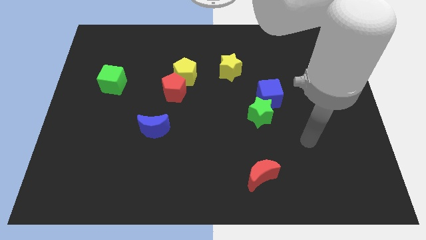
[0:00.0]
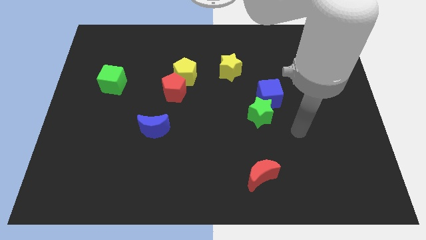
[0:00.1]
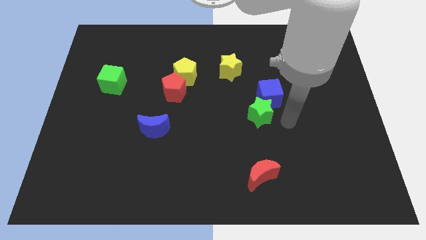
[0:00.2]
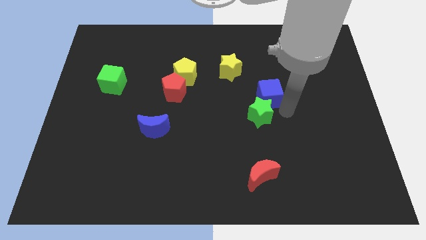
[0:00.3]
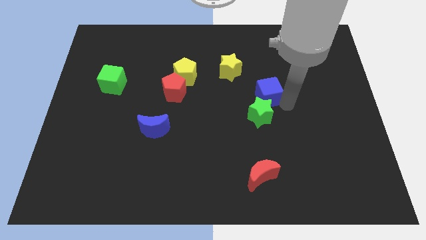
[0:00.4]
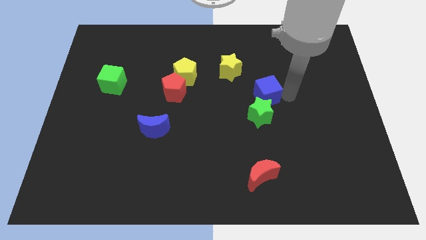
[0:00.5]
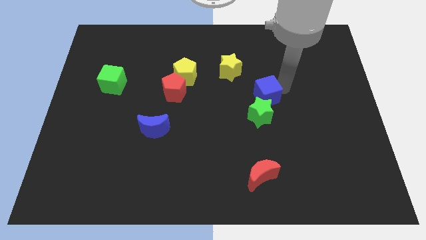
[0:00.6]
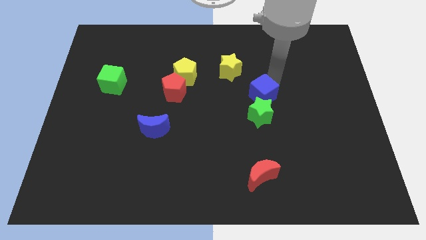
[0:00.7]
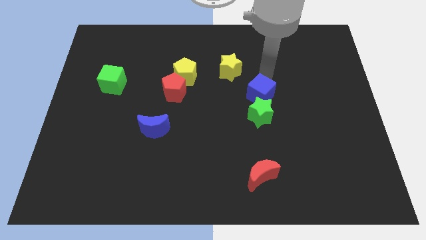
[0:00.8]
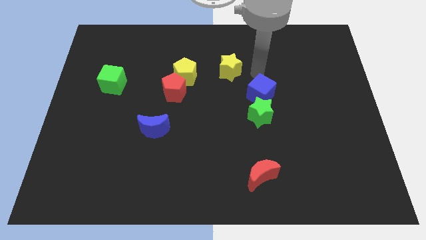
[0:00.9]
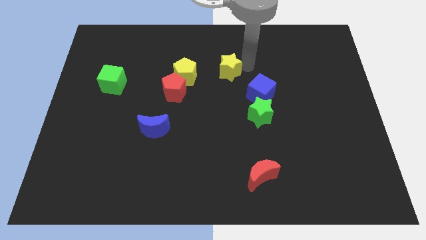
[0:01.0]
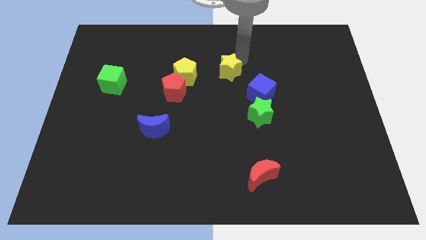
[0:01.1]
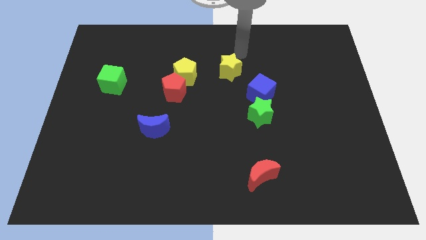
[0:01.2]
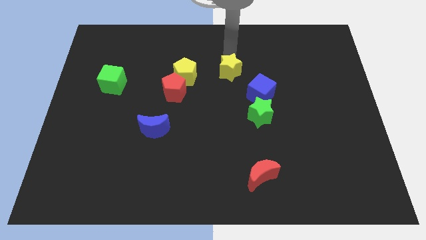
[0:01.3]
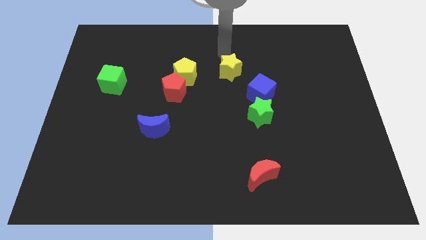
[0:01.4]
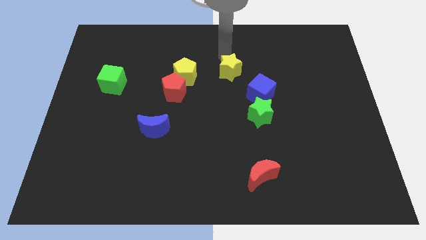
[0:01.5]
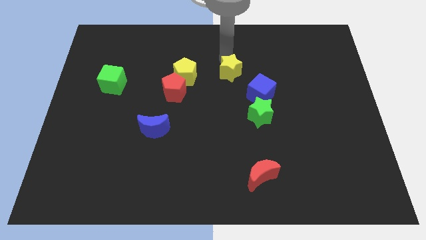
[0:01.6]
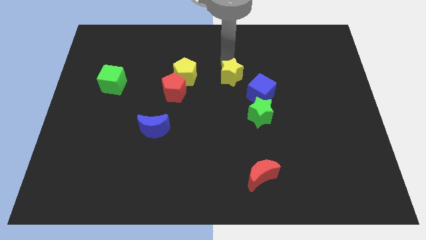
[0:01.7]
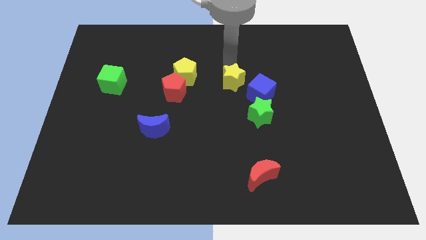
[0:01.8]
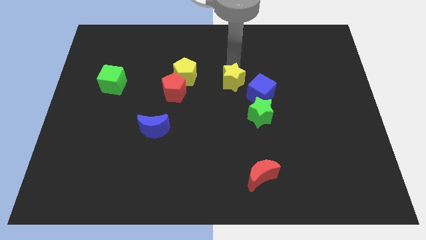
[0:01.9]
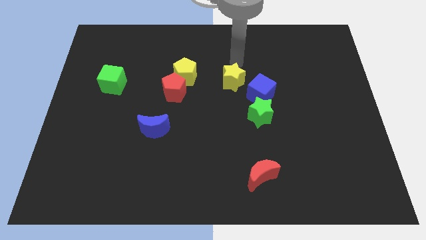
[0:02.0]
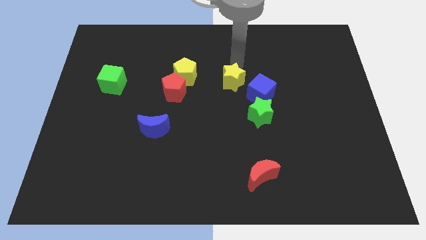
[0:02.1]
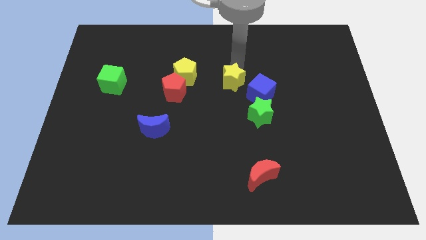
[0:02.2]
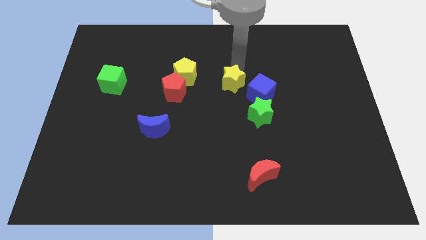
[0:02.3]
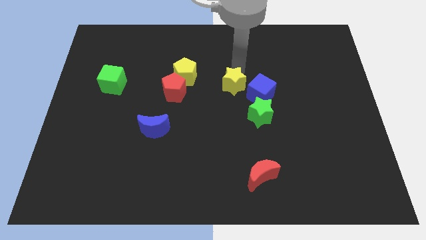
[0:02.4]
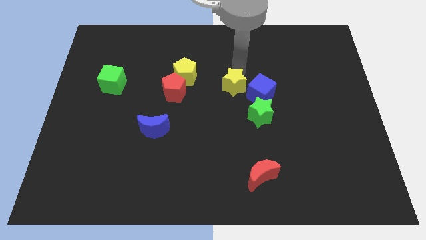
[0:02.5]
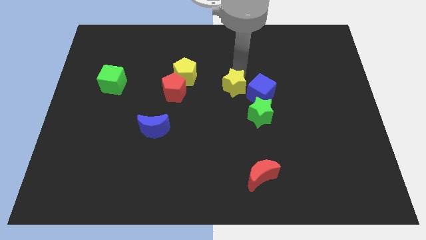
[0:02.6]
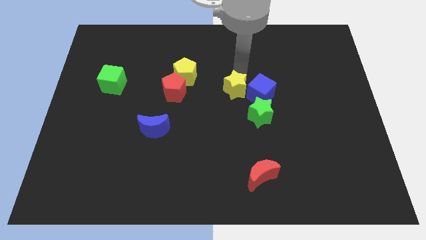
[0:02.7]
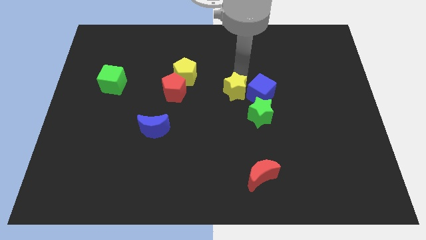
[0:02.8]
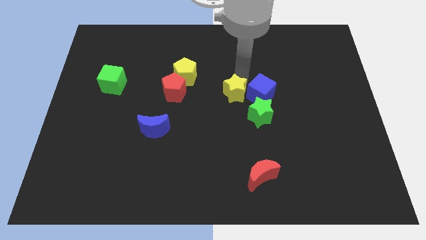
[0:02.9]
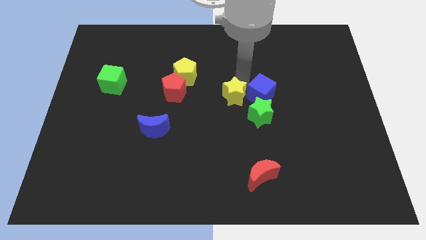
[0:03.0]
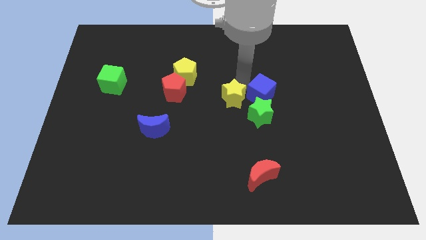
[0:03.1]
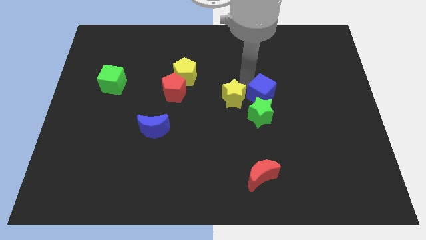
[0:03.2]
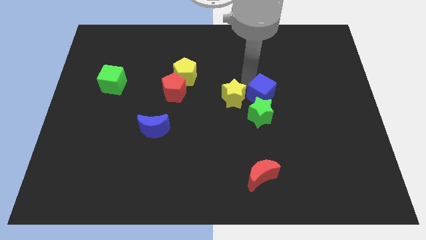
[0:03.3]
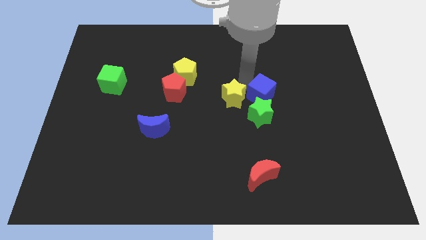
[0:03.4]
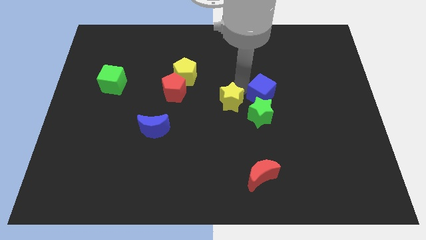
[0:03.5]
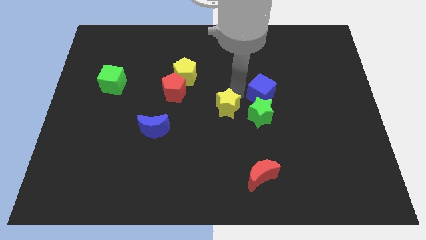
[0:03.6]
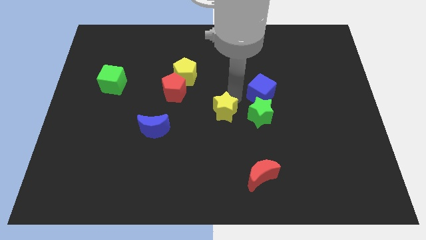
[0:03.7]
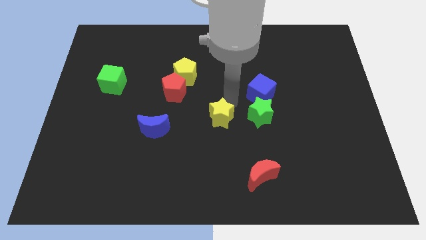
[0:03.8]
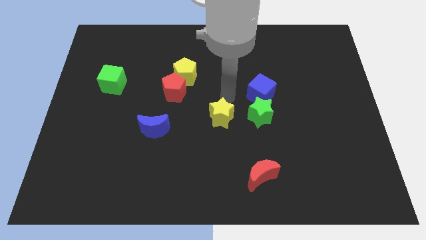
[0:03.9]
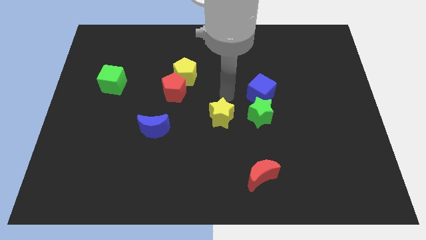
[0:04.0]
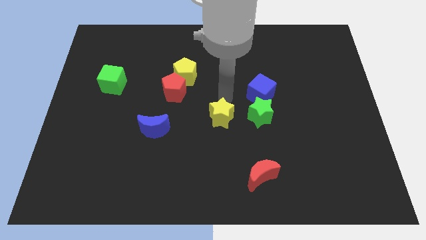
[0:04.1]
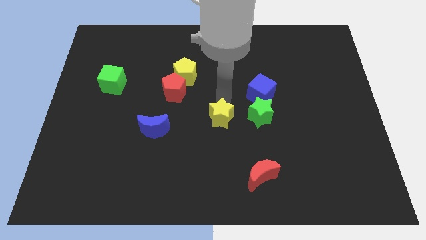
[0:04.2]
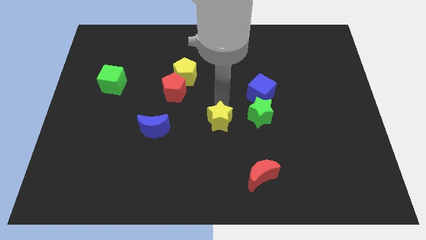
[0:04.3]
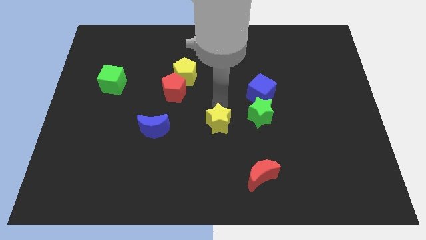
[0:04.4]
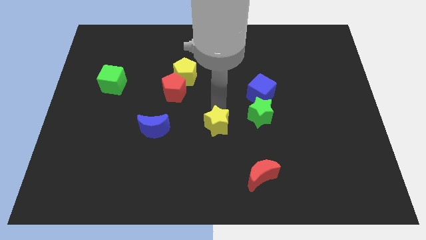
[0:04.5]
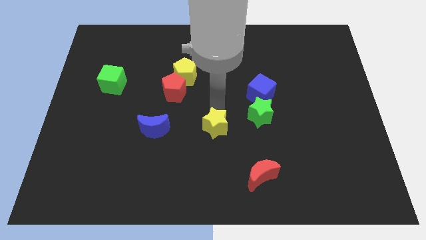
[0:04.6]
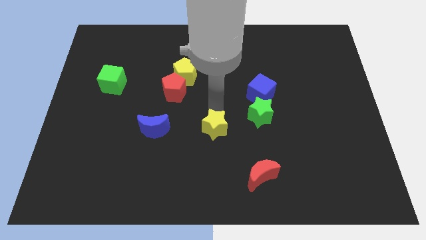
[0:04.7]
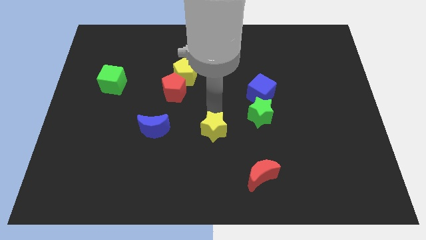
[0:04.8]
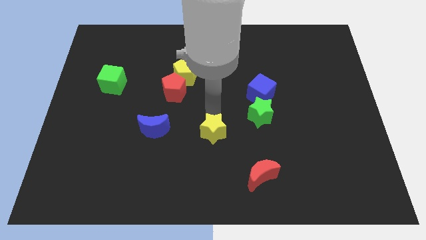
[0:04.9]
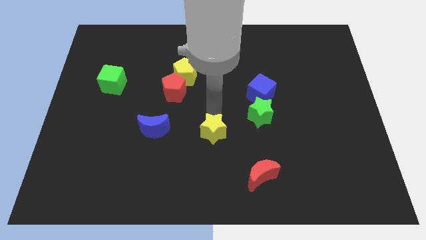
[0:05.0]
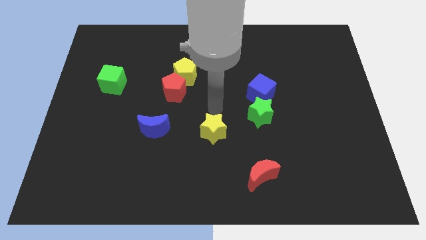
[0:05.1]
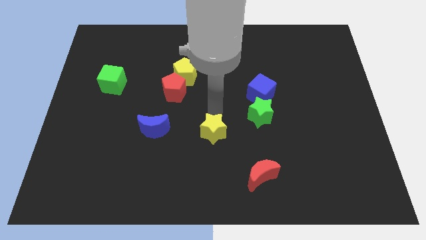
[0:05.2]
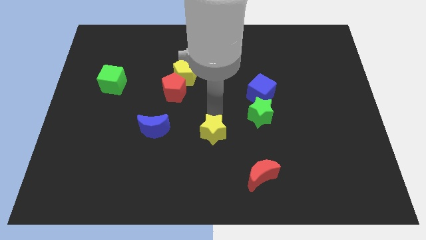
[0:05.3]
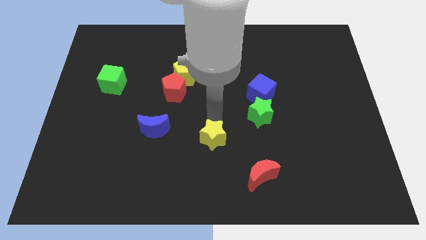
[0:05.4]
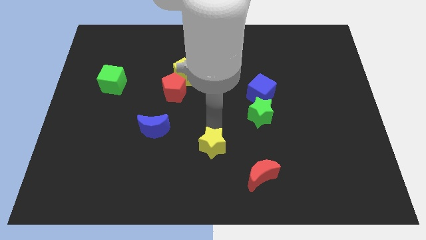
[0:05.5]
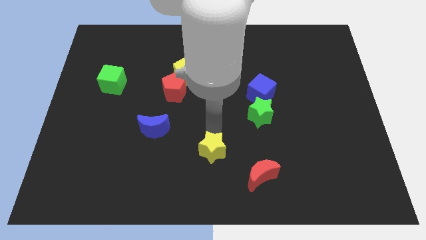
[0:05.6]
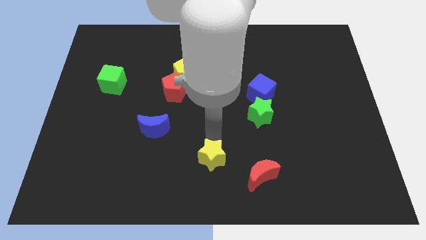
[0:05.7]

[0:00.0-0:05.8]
slide the yellow star to the left side of the red moon

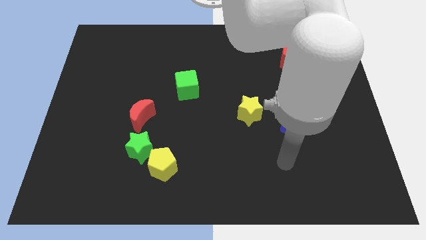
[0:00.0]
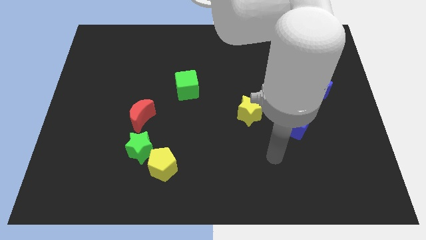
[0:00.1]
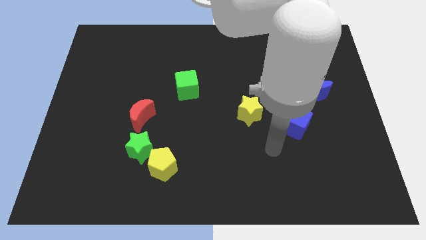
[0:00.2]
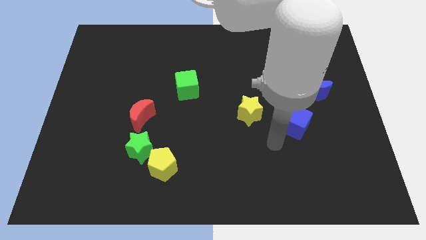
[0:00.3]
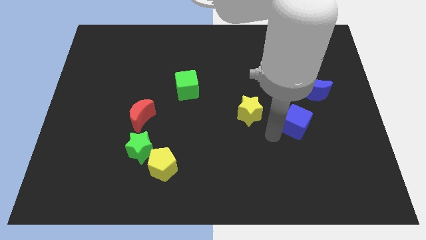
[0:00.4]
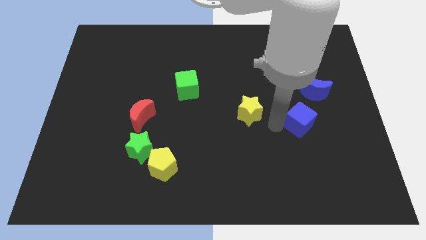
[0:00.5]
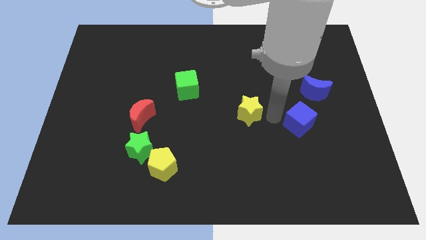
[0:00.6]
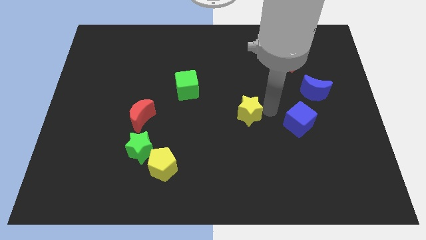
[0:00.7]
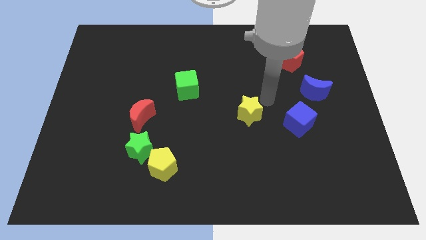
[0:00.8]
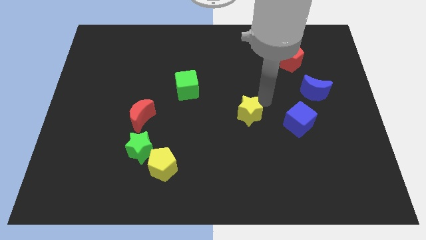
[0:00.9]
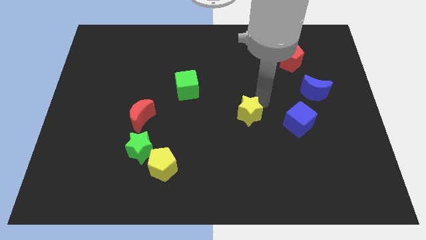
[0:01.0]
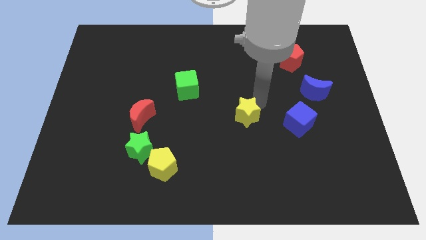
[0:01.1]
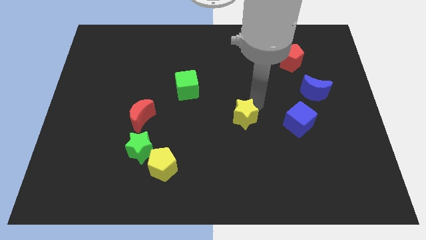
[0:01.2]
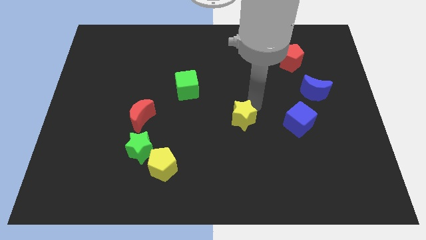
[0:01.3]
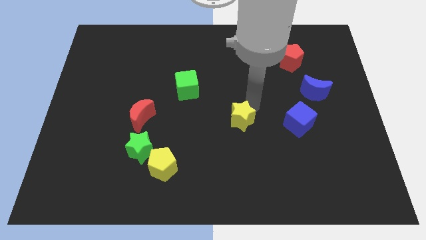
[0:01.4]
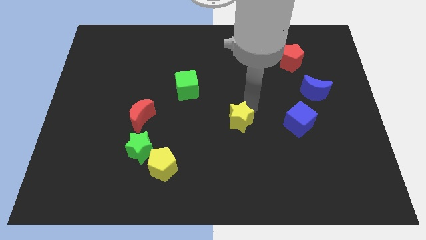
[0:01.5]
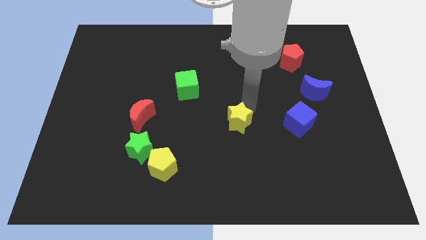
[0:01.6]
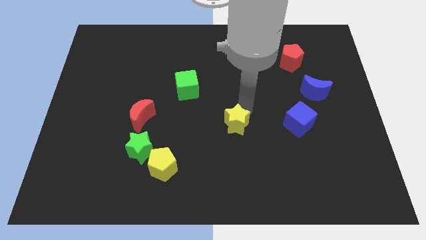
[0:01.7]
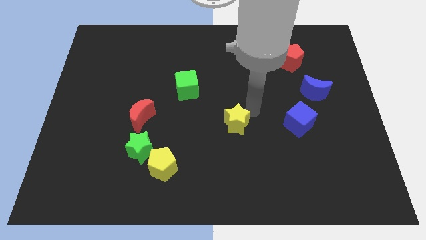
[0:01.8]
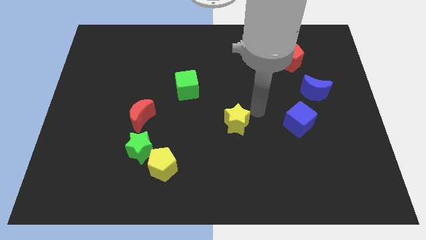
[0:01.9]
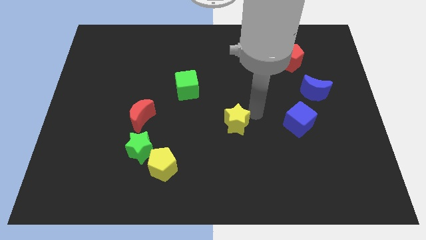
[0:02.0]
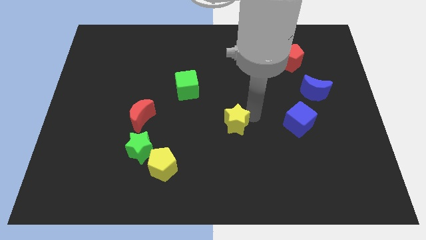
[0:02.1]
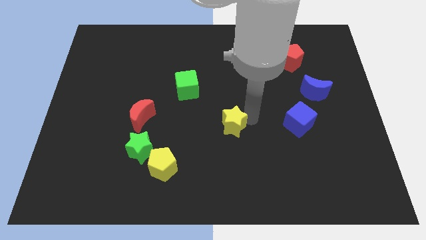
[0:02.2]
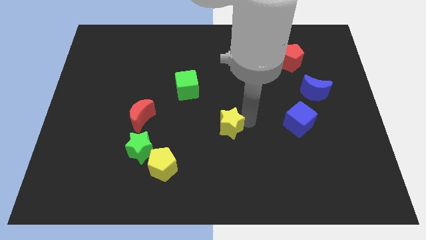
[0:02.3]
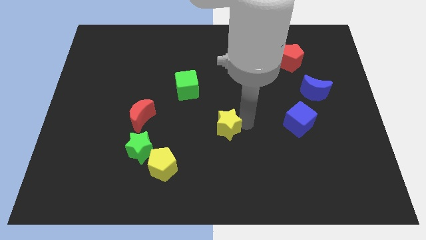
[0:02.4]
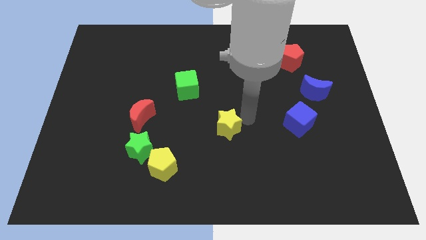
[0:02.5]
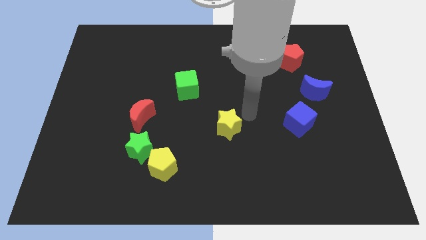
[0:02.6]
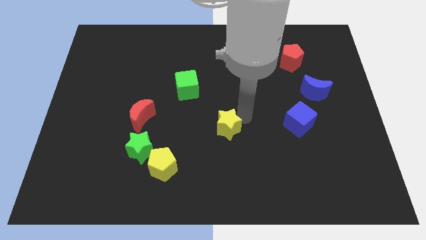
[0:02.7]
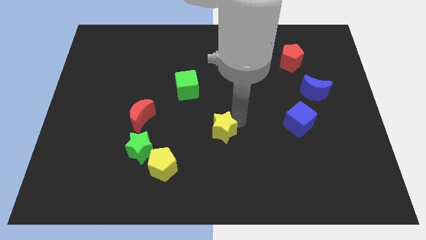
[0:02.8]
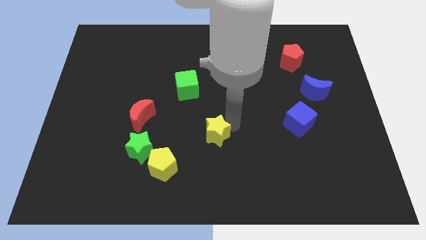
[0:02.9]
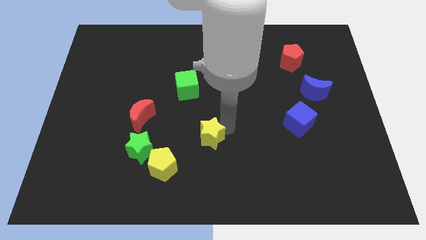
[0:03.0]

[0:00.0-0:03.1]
push the yellow star right of the green star
